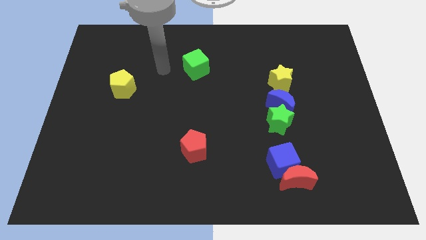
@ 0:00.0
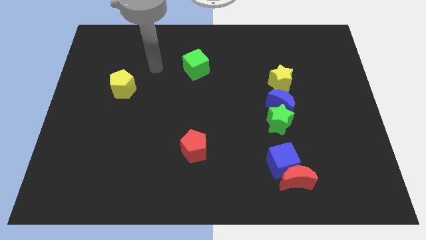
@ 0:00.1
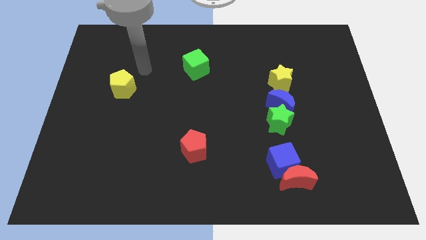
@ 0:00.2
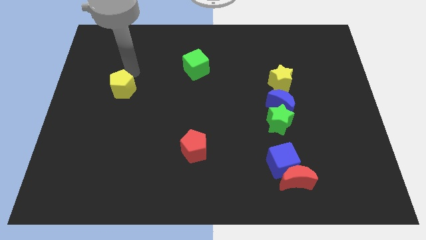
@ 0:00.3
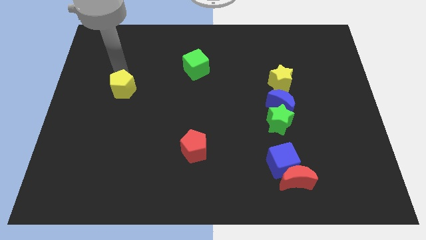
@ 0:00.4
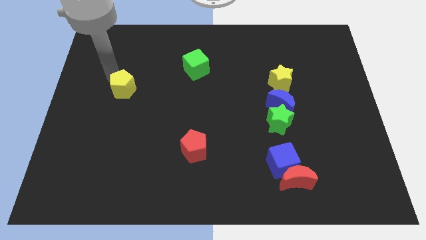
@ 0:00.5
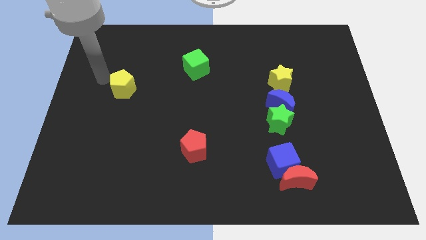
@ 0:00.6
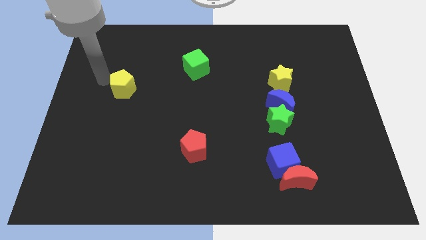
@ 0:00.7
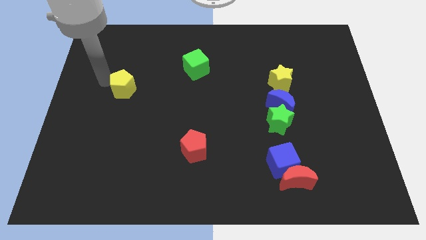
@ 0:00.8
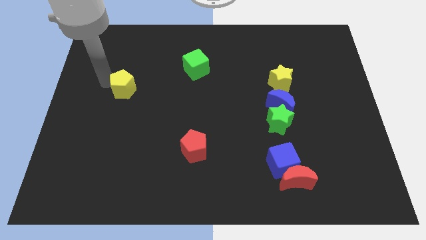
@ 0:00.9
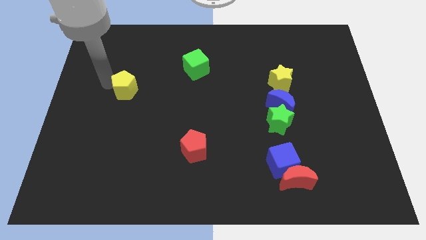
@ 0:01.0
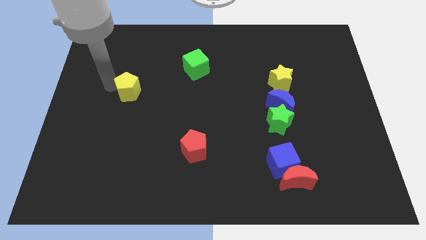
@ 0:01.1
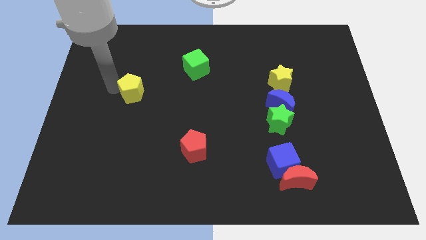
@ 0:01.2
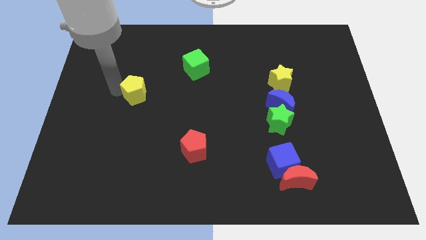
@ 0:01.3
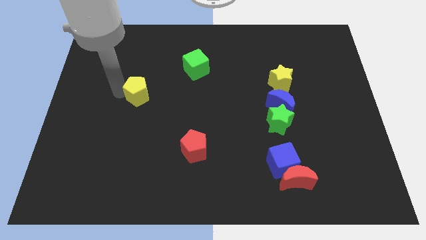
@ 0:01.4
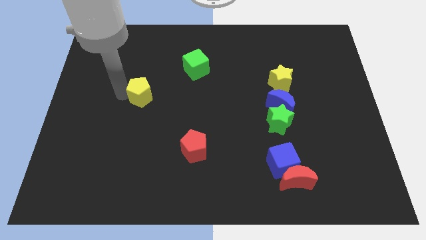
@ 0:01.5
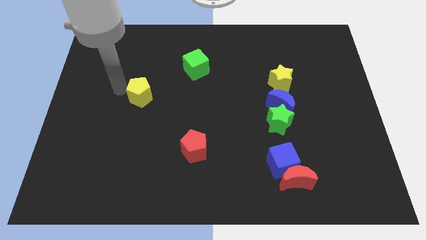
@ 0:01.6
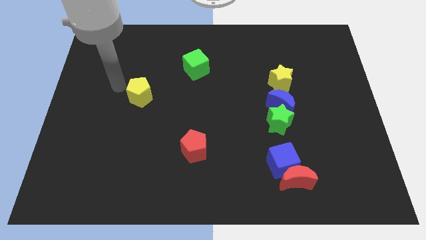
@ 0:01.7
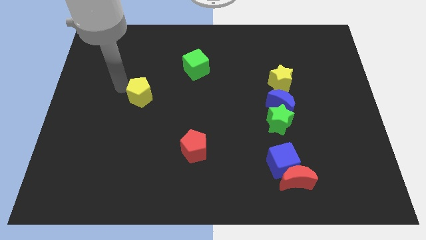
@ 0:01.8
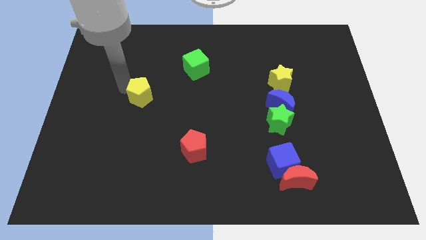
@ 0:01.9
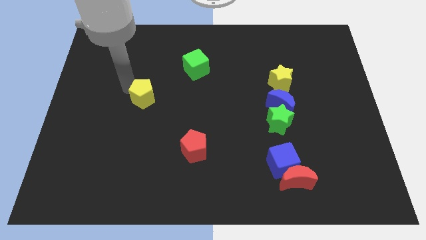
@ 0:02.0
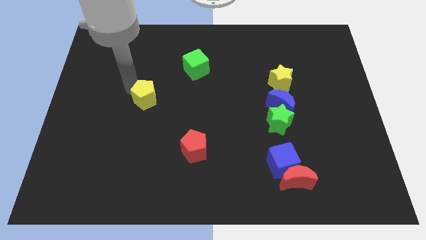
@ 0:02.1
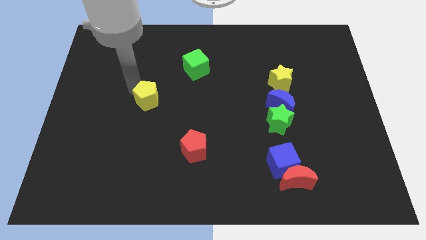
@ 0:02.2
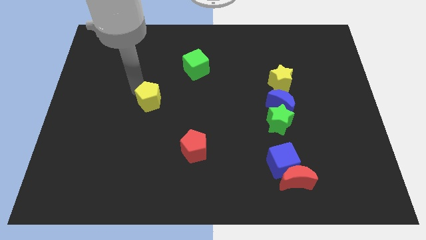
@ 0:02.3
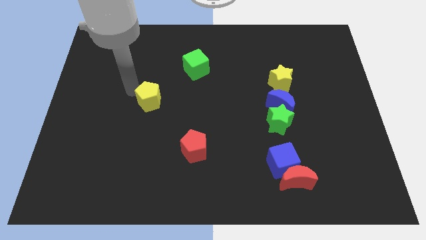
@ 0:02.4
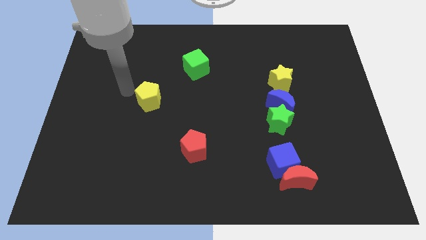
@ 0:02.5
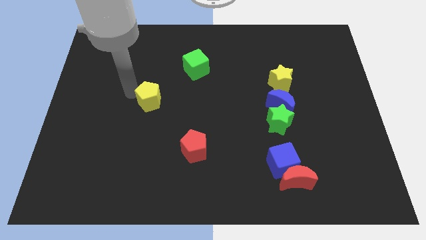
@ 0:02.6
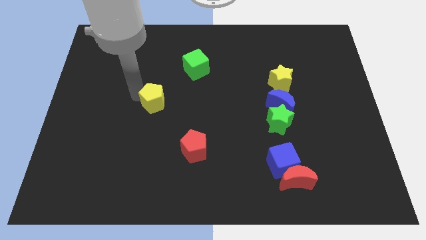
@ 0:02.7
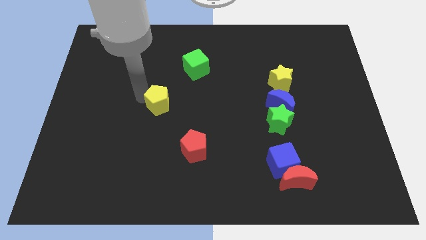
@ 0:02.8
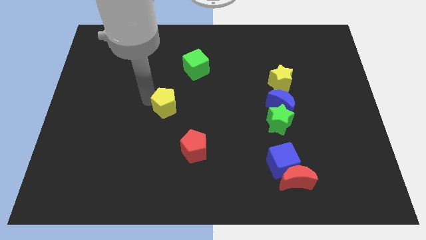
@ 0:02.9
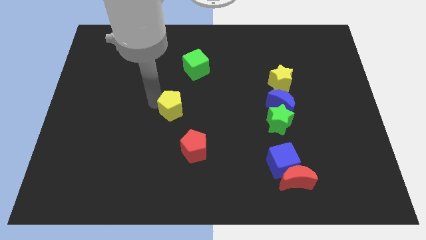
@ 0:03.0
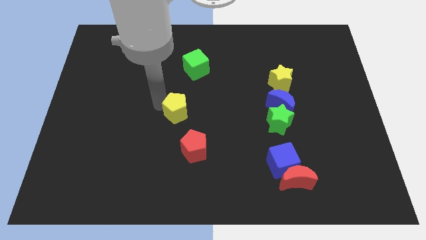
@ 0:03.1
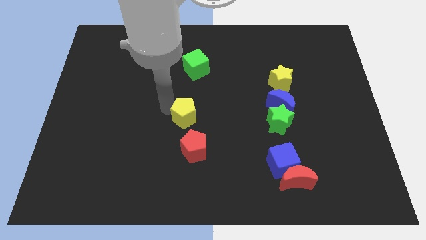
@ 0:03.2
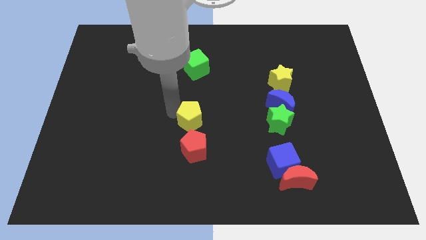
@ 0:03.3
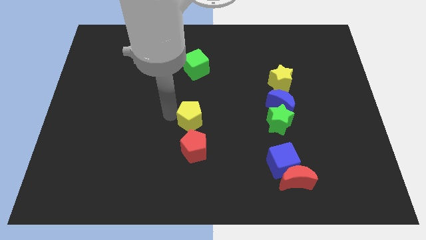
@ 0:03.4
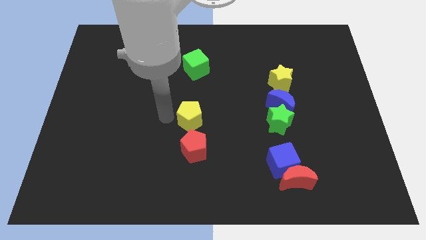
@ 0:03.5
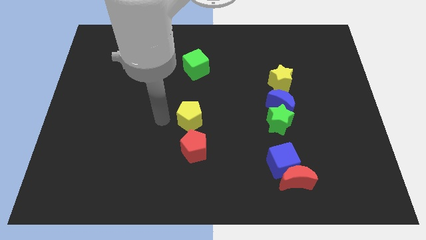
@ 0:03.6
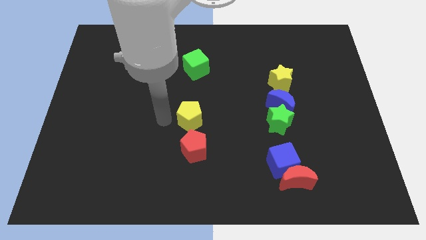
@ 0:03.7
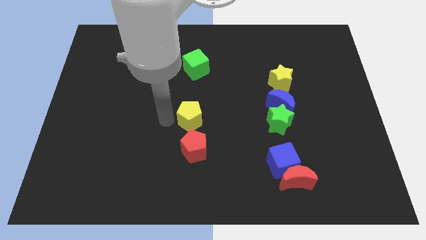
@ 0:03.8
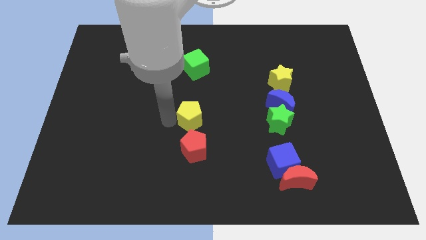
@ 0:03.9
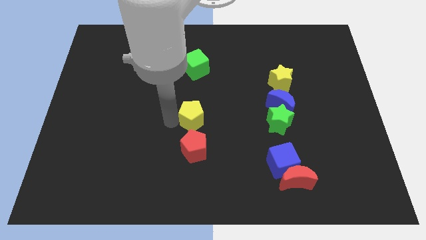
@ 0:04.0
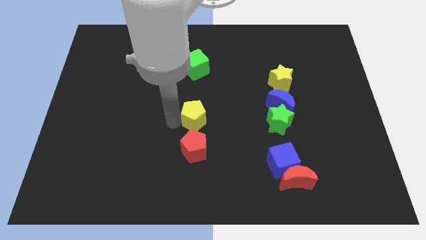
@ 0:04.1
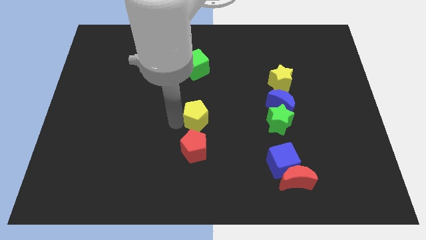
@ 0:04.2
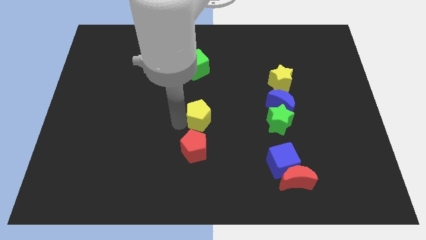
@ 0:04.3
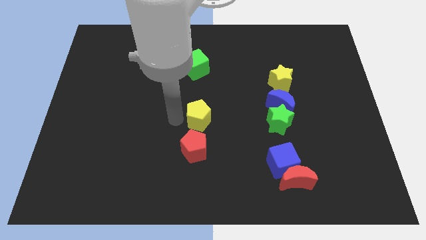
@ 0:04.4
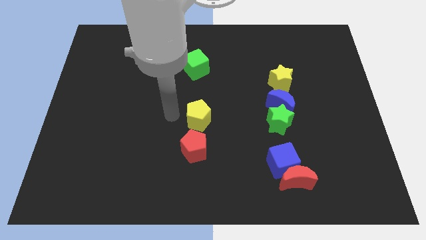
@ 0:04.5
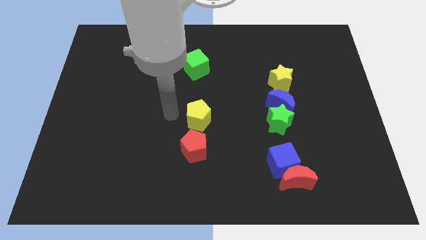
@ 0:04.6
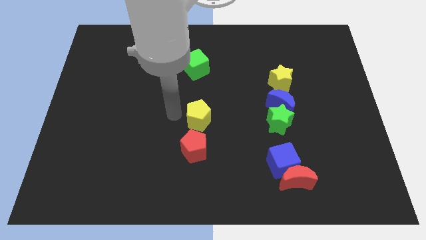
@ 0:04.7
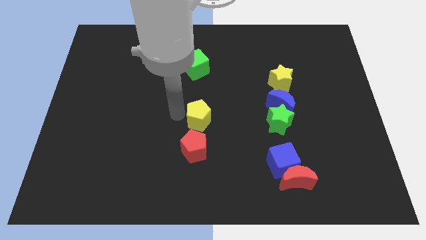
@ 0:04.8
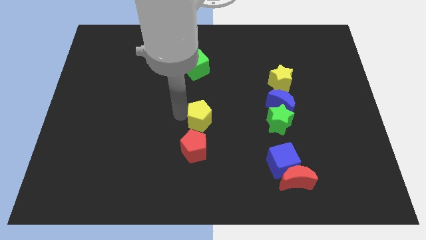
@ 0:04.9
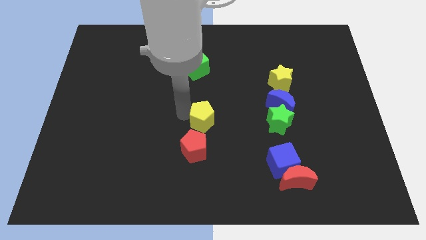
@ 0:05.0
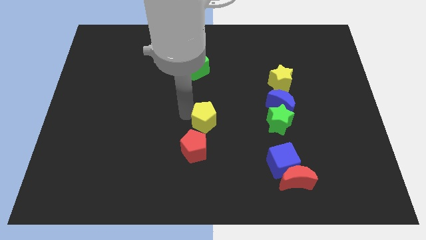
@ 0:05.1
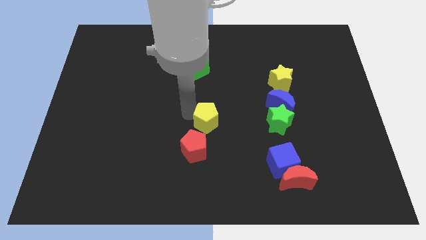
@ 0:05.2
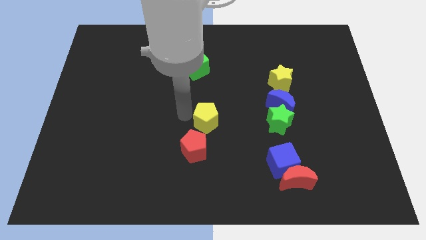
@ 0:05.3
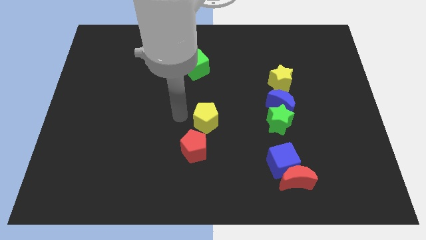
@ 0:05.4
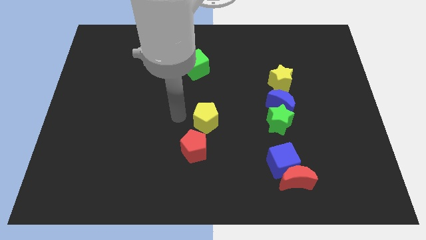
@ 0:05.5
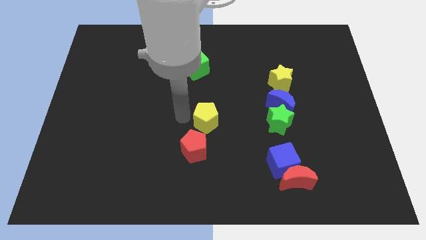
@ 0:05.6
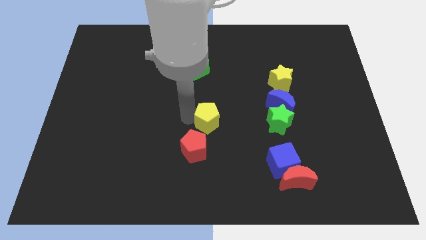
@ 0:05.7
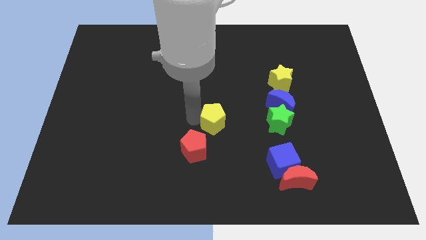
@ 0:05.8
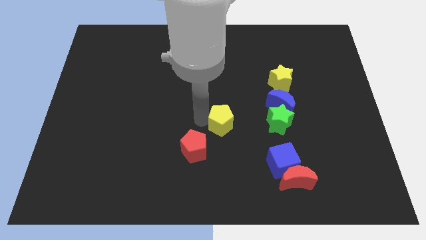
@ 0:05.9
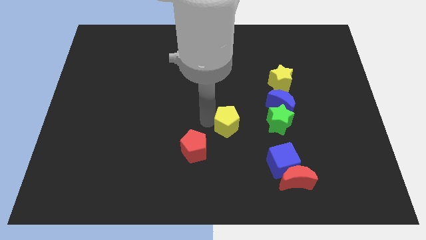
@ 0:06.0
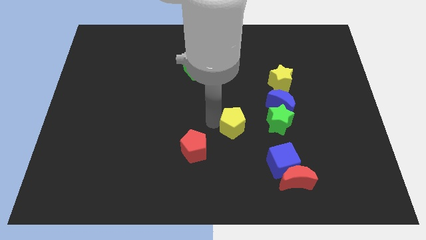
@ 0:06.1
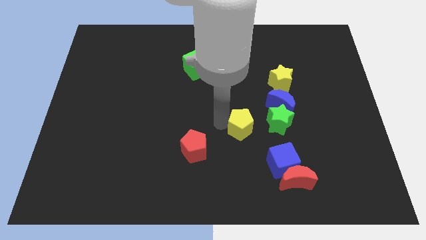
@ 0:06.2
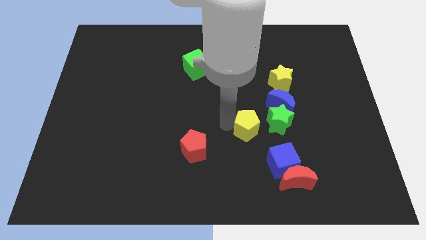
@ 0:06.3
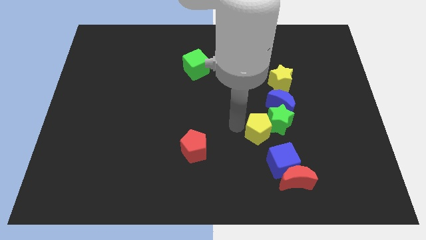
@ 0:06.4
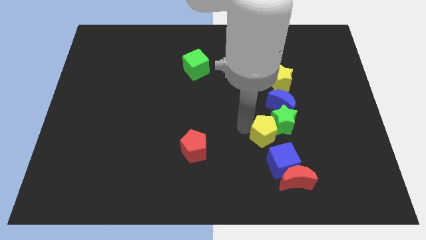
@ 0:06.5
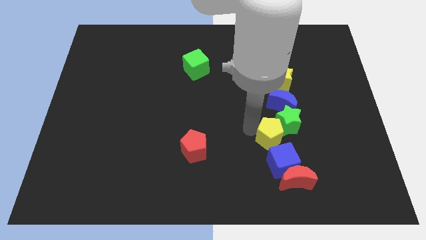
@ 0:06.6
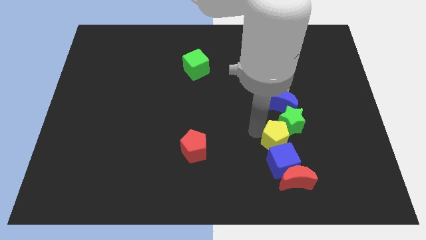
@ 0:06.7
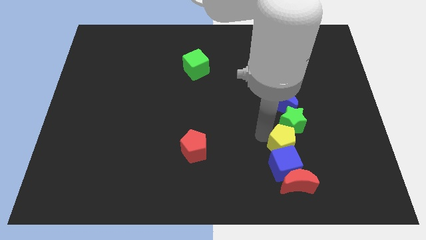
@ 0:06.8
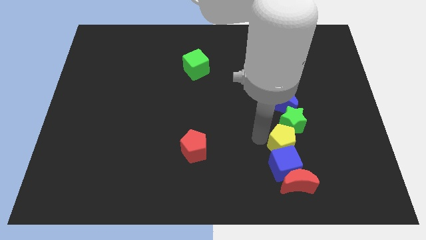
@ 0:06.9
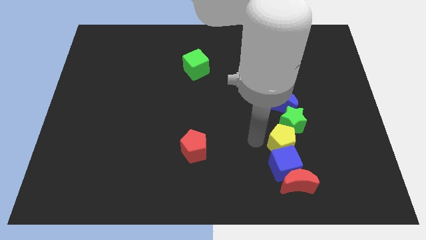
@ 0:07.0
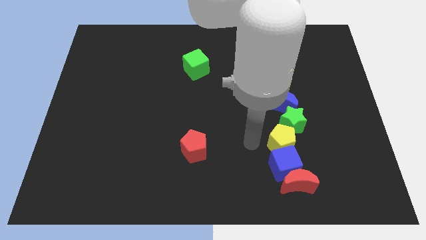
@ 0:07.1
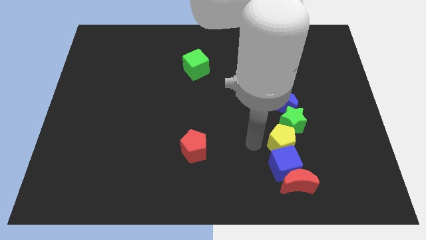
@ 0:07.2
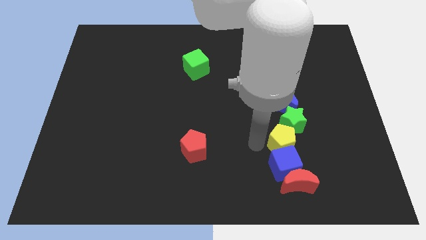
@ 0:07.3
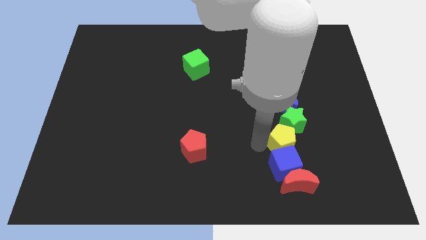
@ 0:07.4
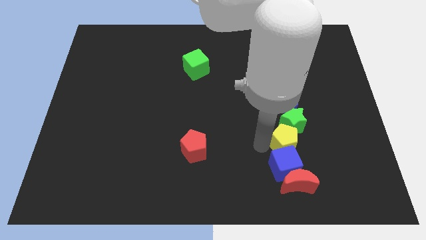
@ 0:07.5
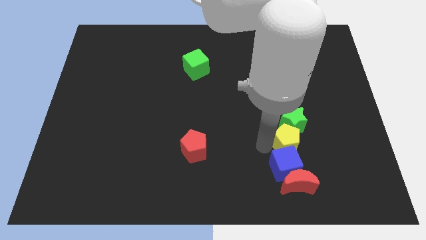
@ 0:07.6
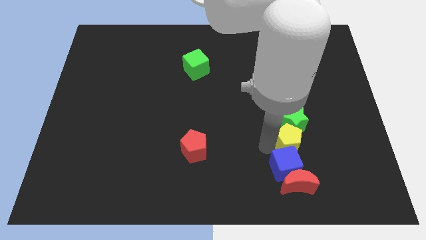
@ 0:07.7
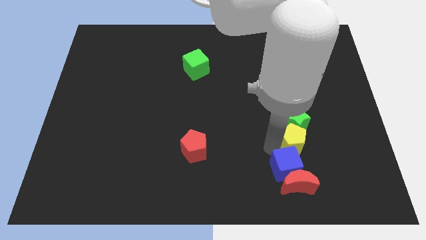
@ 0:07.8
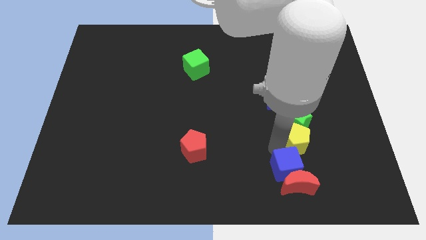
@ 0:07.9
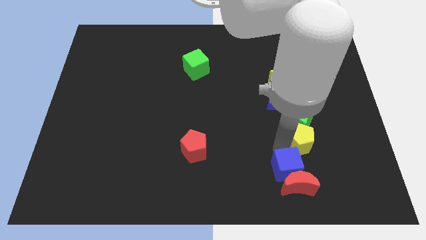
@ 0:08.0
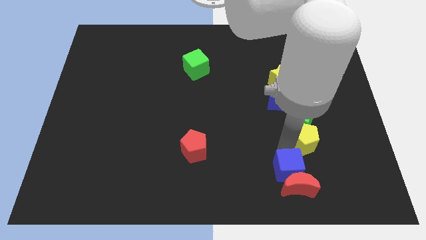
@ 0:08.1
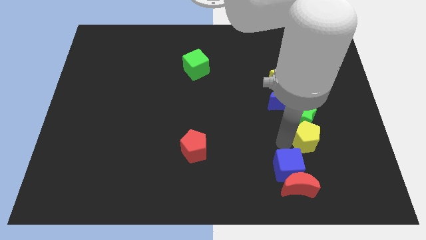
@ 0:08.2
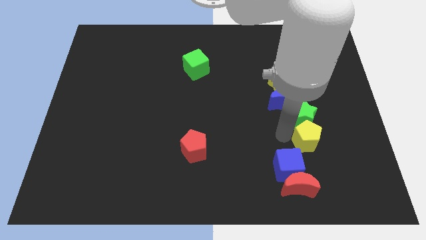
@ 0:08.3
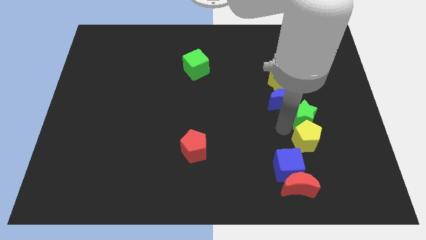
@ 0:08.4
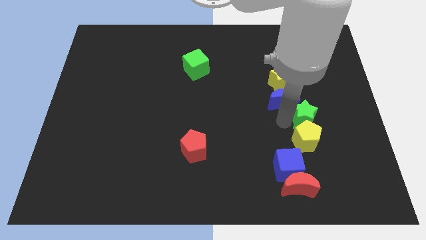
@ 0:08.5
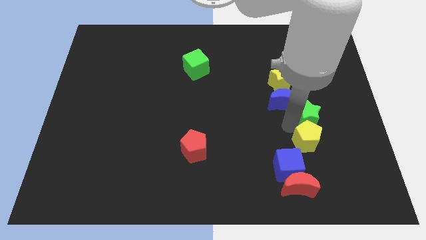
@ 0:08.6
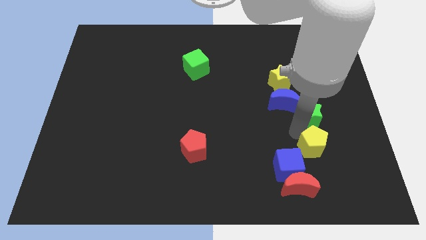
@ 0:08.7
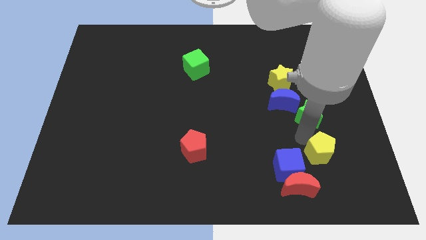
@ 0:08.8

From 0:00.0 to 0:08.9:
move the yellow pentagon right of the blue cube
